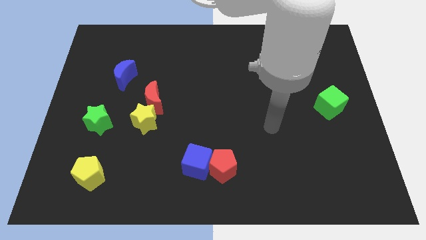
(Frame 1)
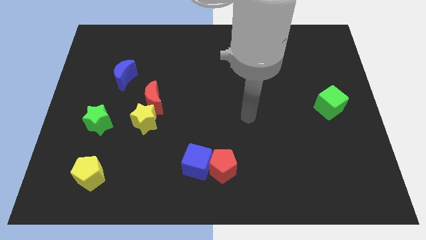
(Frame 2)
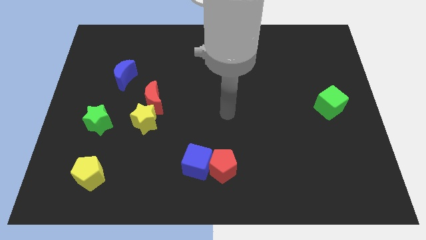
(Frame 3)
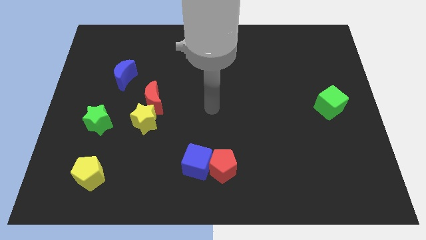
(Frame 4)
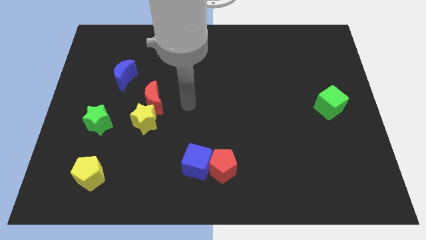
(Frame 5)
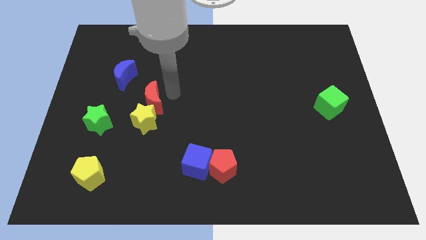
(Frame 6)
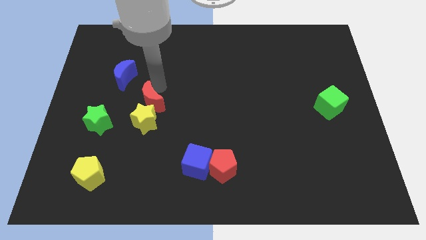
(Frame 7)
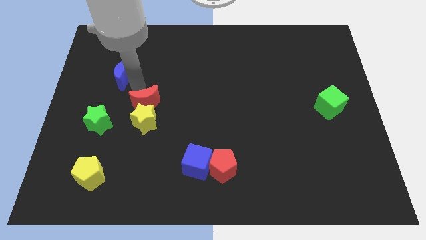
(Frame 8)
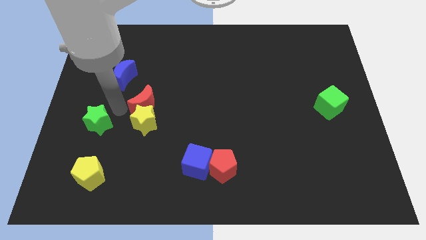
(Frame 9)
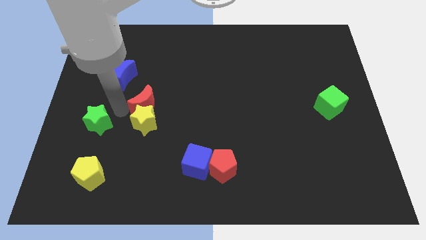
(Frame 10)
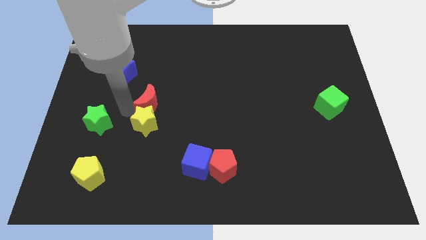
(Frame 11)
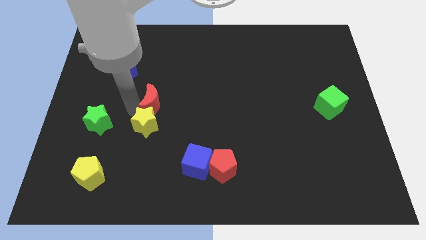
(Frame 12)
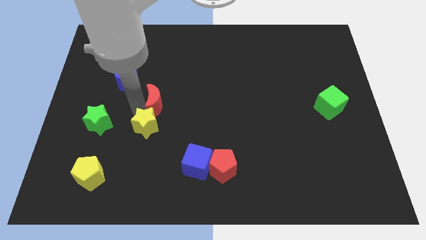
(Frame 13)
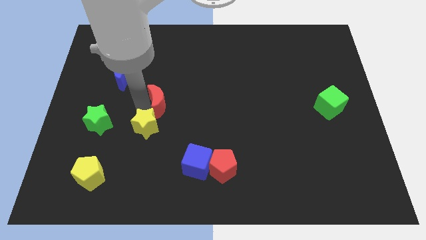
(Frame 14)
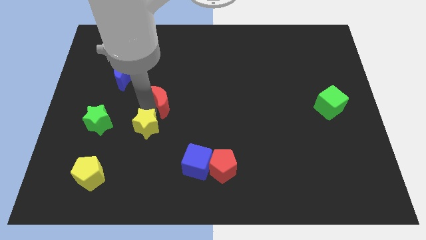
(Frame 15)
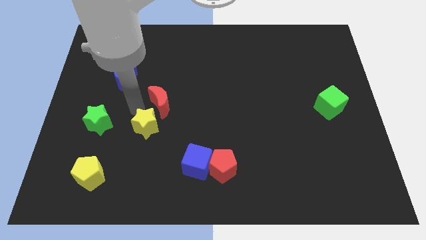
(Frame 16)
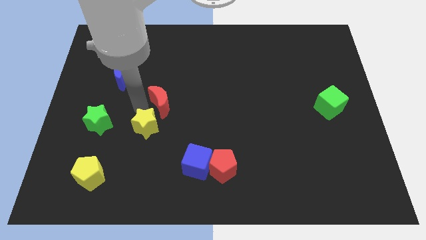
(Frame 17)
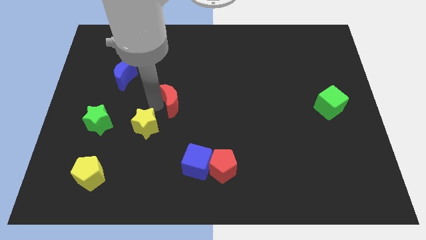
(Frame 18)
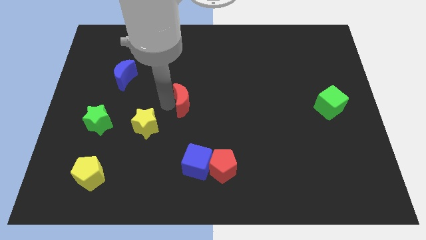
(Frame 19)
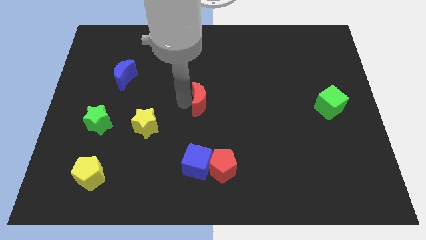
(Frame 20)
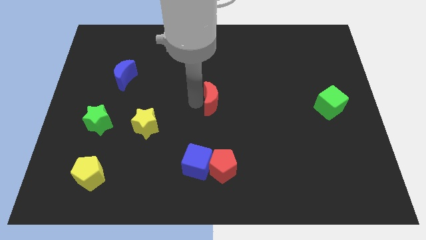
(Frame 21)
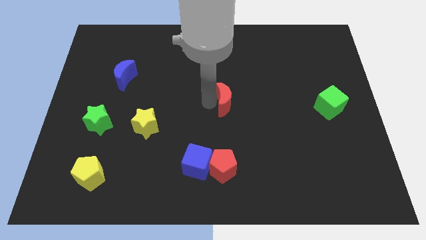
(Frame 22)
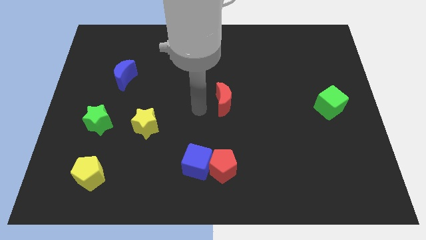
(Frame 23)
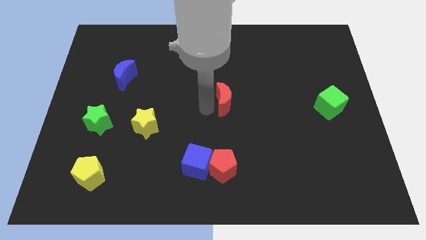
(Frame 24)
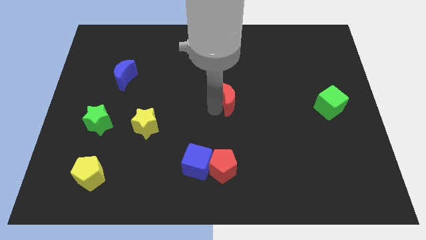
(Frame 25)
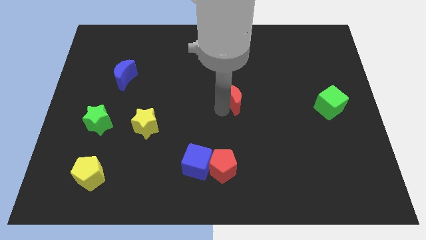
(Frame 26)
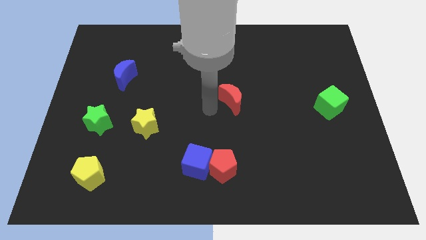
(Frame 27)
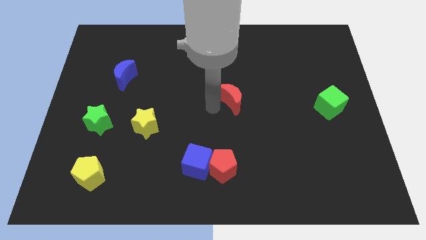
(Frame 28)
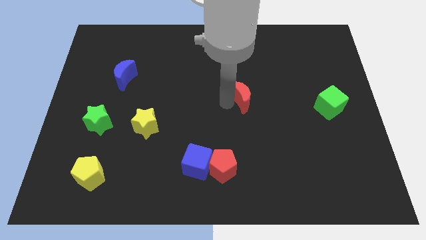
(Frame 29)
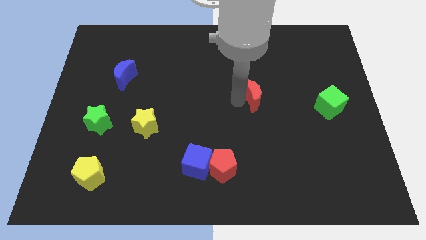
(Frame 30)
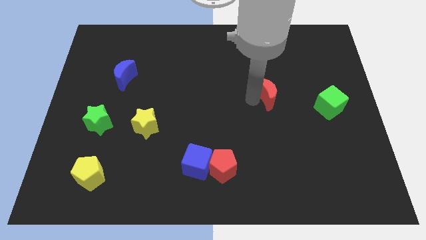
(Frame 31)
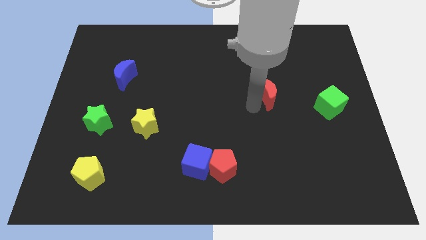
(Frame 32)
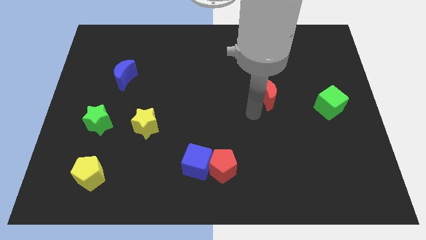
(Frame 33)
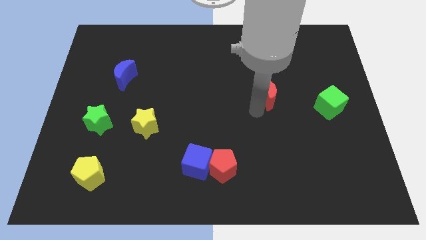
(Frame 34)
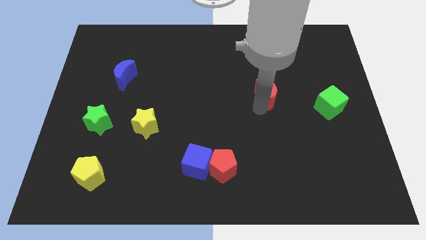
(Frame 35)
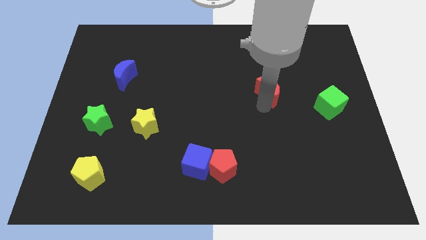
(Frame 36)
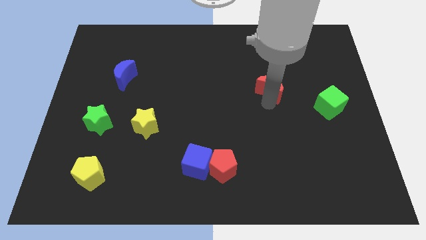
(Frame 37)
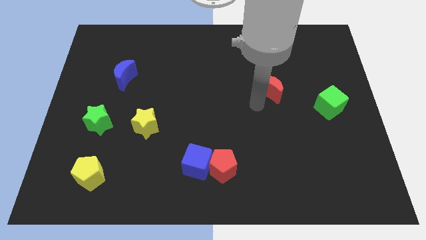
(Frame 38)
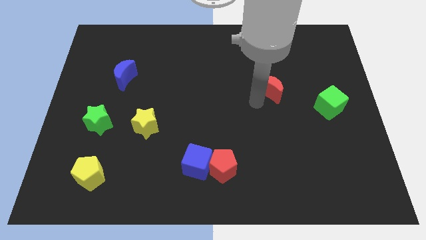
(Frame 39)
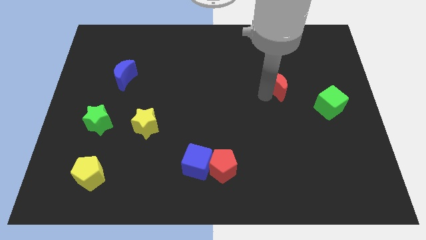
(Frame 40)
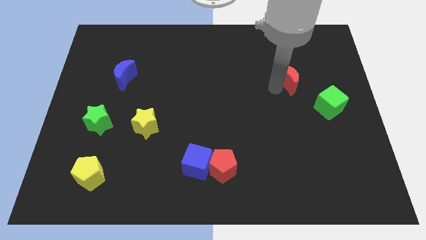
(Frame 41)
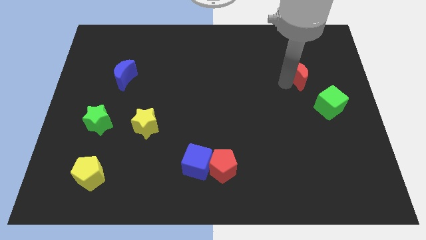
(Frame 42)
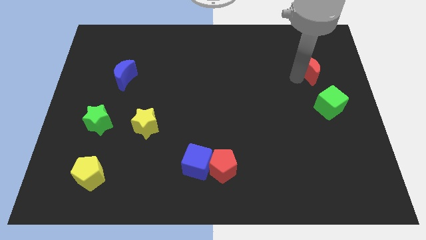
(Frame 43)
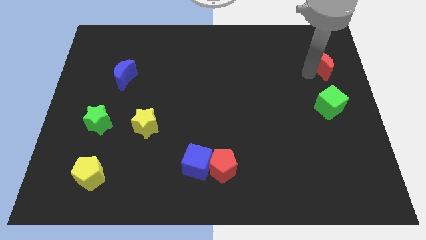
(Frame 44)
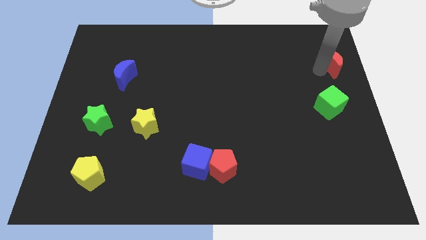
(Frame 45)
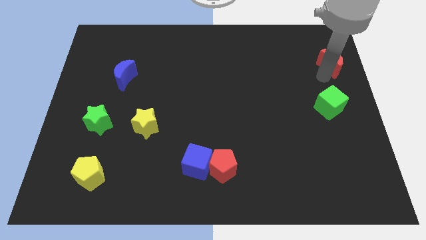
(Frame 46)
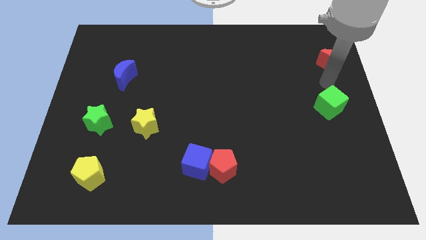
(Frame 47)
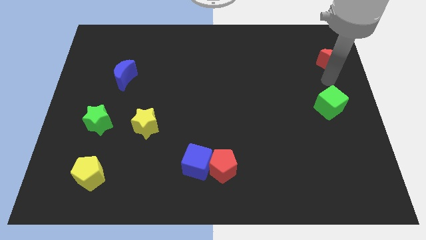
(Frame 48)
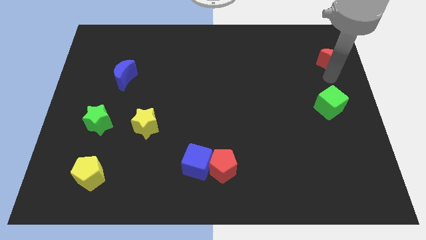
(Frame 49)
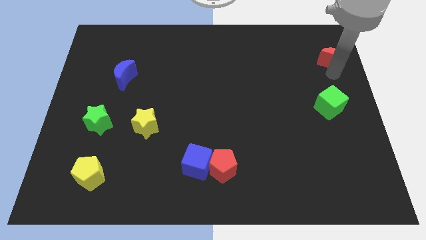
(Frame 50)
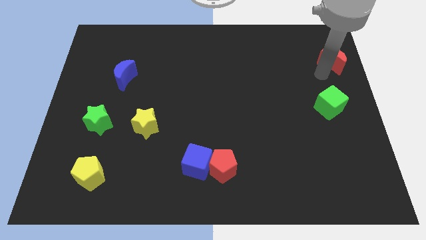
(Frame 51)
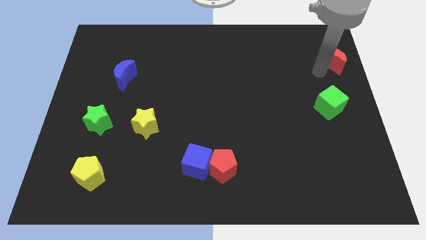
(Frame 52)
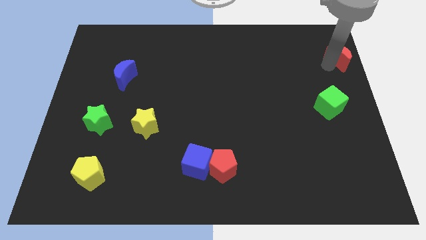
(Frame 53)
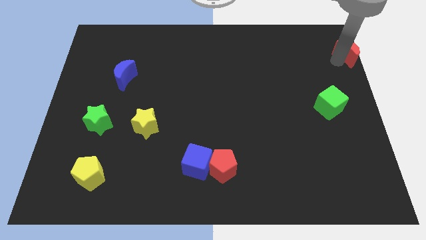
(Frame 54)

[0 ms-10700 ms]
push the red moon to the top right

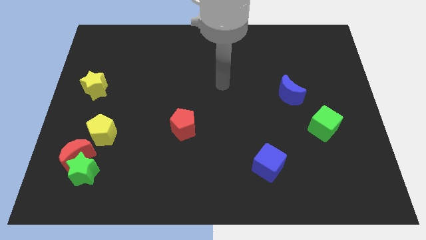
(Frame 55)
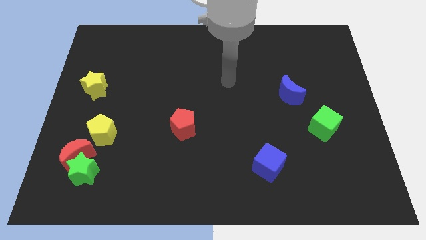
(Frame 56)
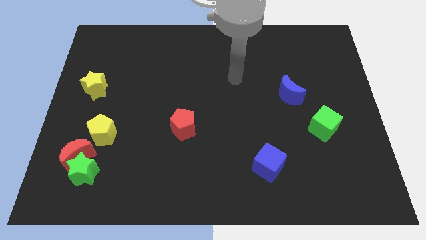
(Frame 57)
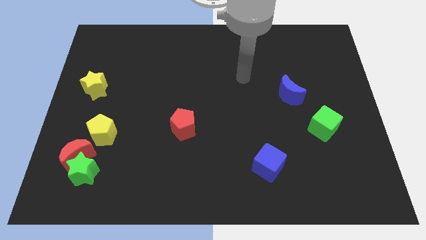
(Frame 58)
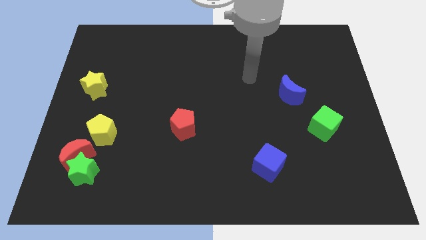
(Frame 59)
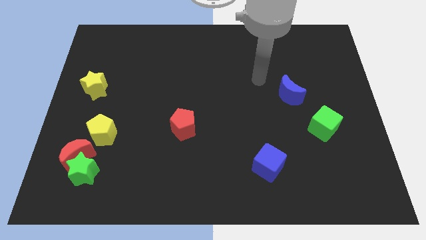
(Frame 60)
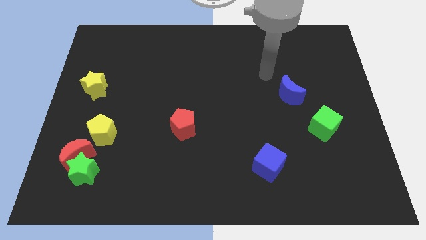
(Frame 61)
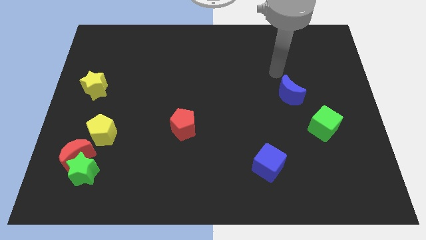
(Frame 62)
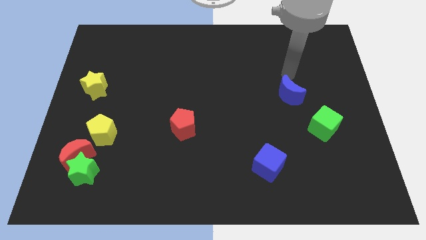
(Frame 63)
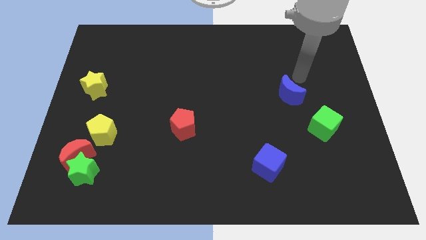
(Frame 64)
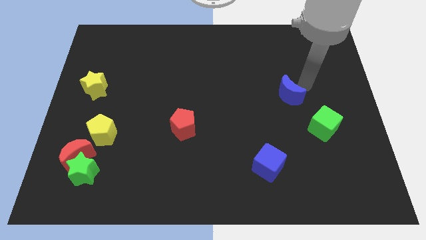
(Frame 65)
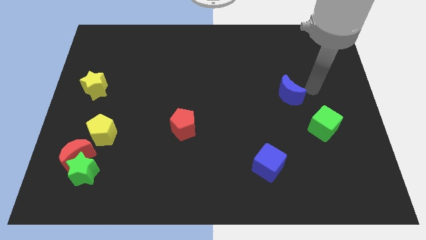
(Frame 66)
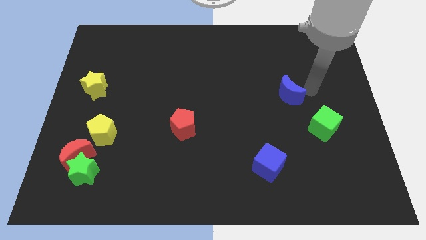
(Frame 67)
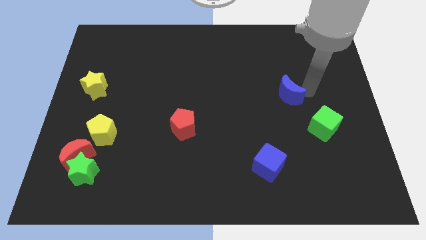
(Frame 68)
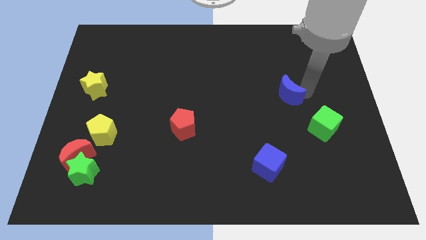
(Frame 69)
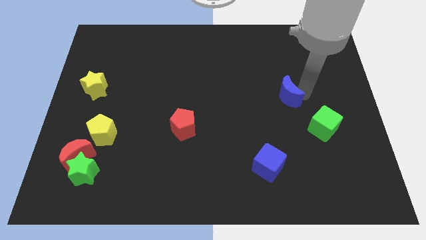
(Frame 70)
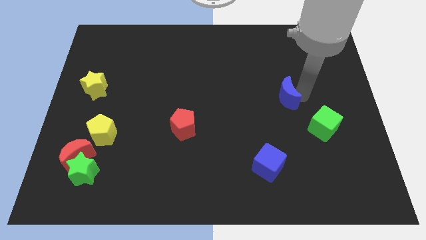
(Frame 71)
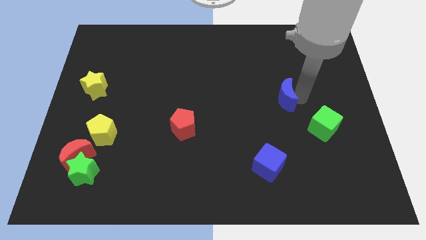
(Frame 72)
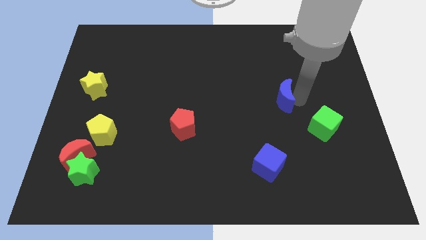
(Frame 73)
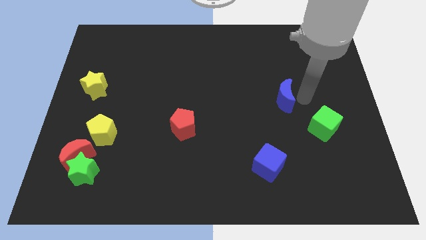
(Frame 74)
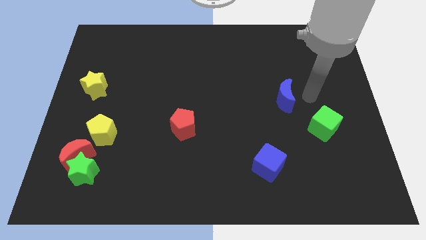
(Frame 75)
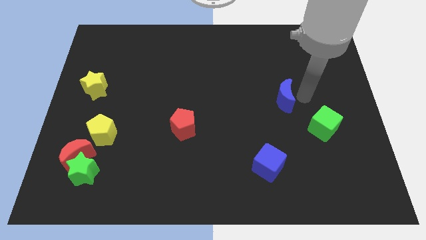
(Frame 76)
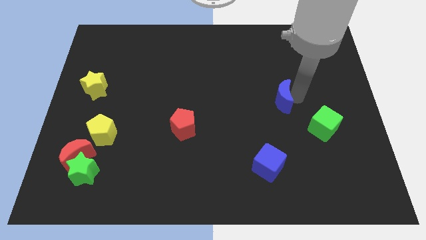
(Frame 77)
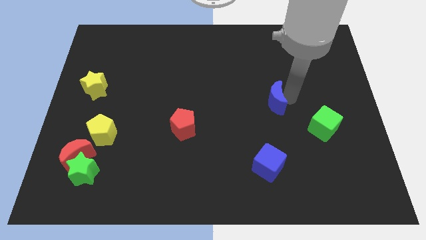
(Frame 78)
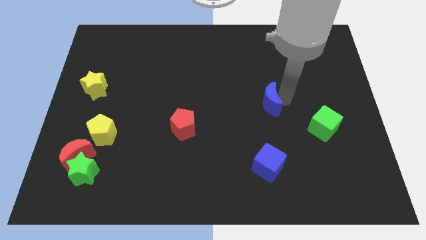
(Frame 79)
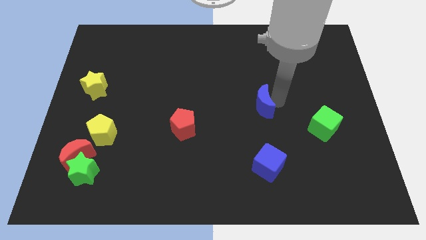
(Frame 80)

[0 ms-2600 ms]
slide the blue moon to the middle
